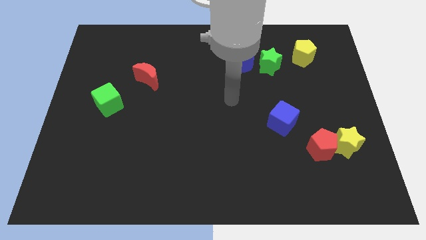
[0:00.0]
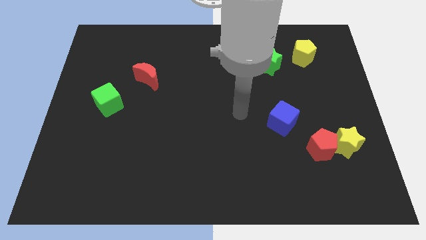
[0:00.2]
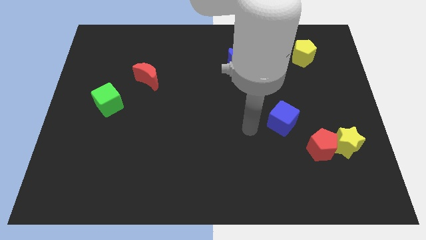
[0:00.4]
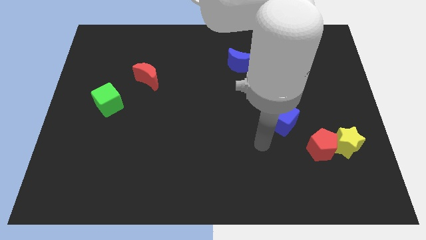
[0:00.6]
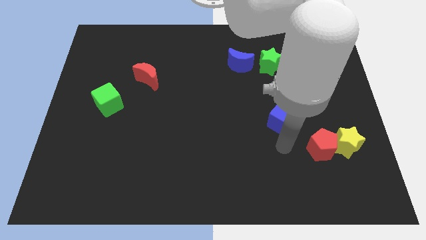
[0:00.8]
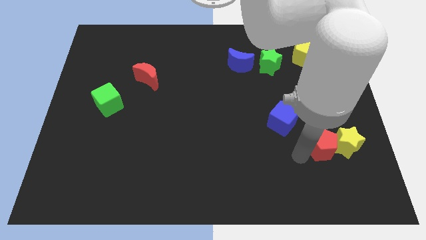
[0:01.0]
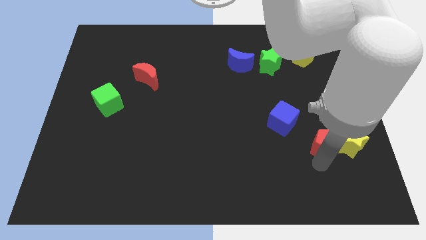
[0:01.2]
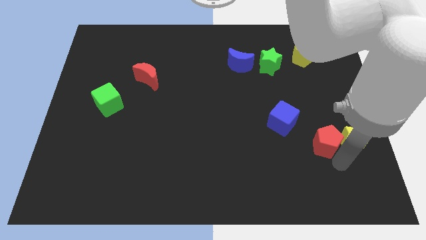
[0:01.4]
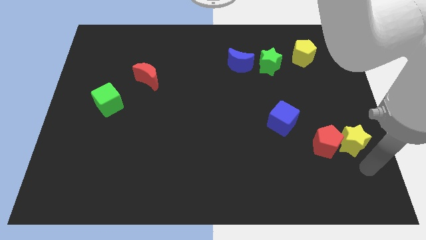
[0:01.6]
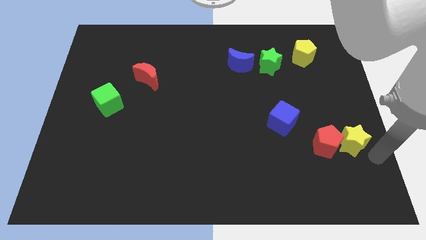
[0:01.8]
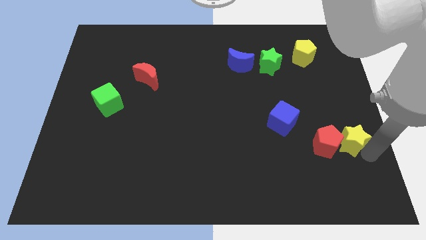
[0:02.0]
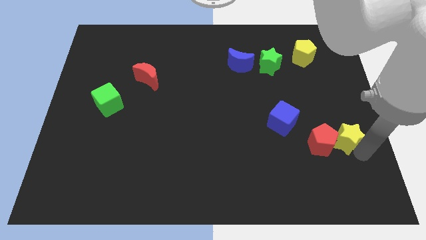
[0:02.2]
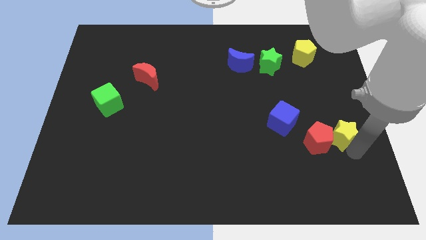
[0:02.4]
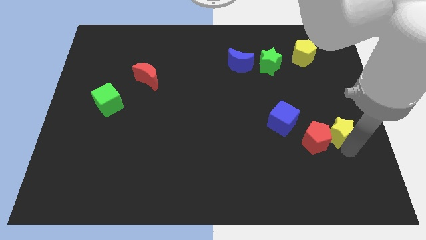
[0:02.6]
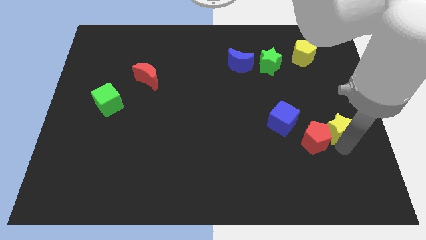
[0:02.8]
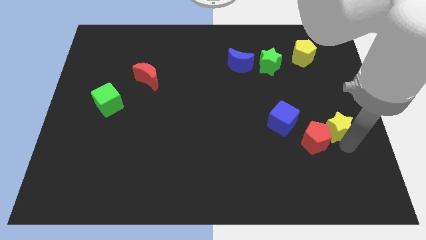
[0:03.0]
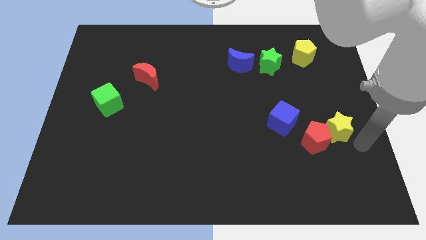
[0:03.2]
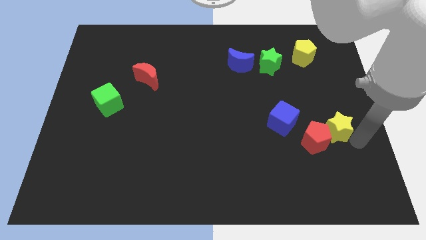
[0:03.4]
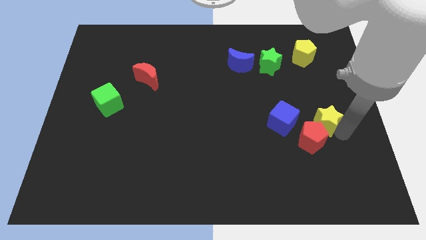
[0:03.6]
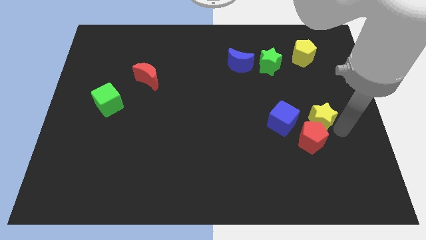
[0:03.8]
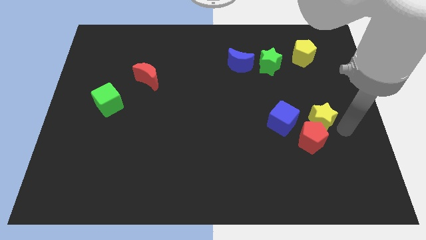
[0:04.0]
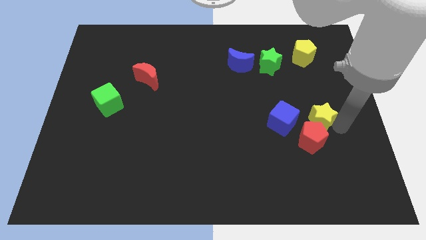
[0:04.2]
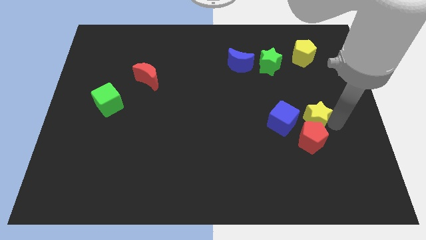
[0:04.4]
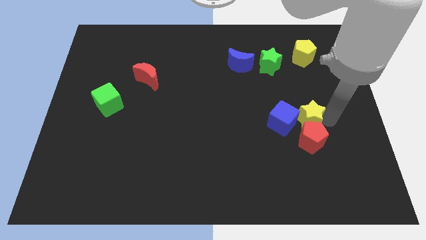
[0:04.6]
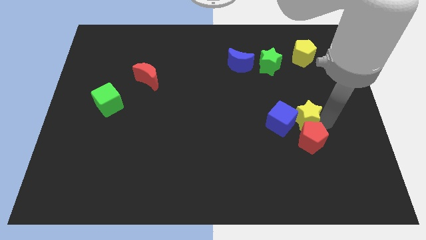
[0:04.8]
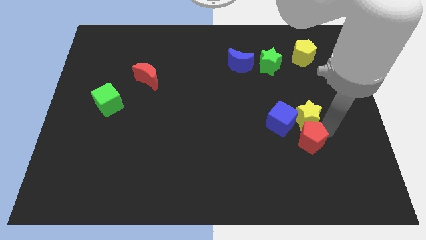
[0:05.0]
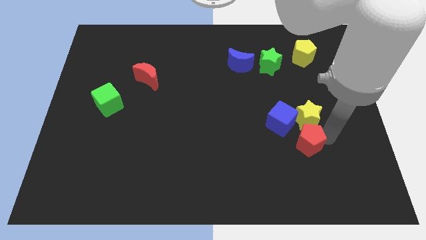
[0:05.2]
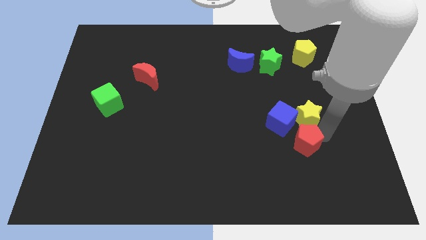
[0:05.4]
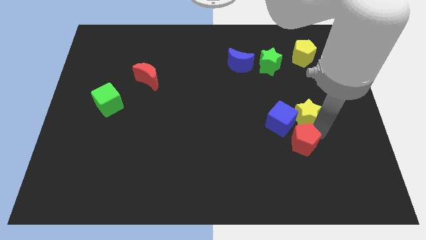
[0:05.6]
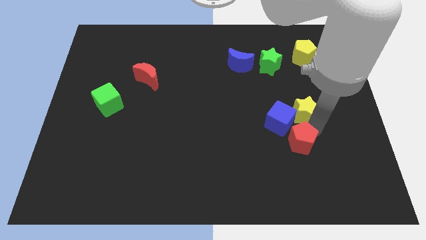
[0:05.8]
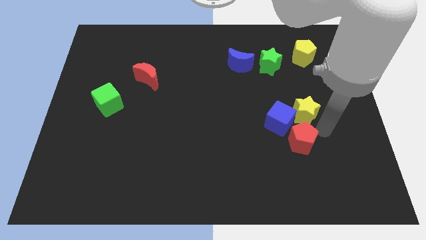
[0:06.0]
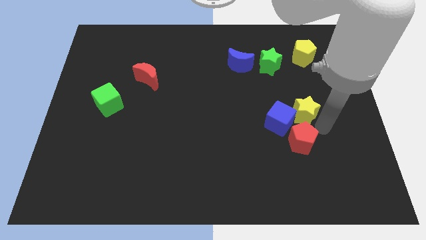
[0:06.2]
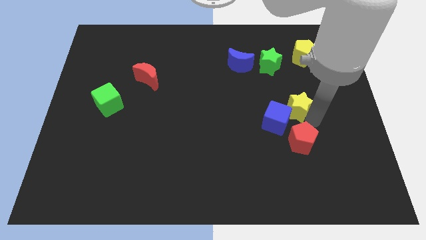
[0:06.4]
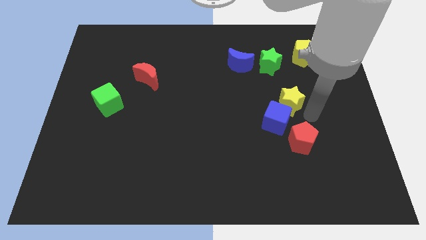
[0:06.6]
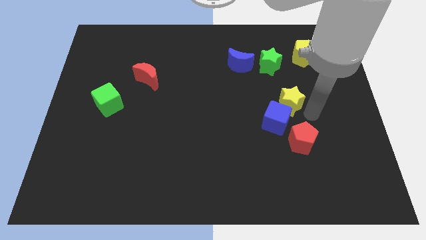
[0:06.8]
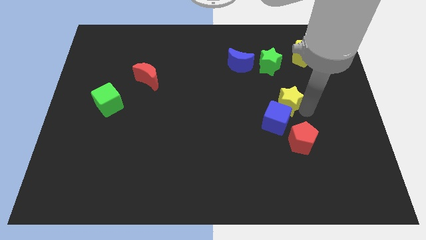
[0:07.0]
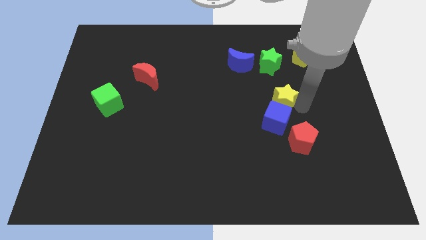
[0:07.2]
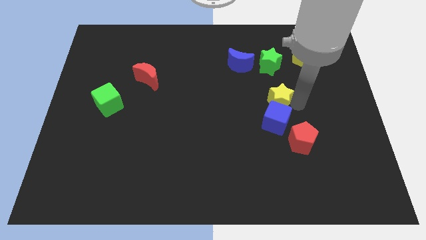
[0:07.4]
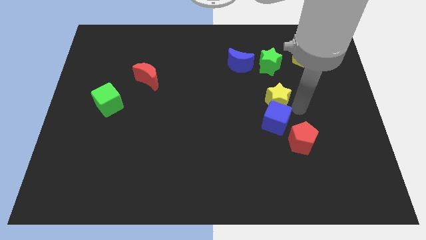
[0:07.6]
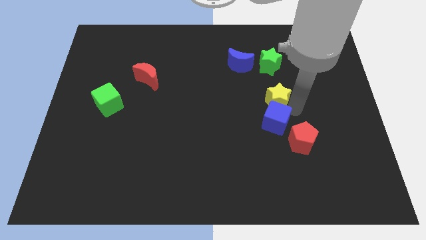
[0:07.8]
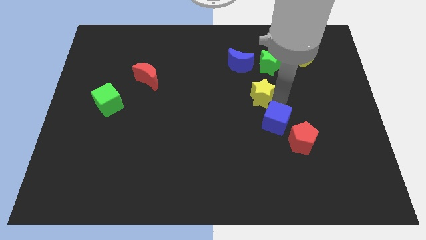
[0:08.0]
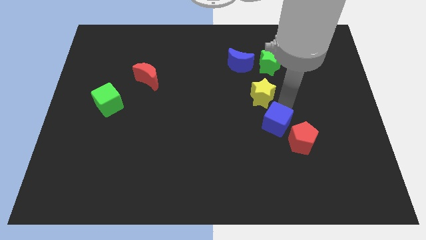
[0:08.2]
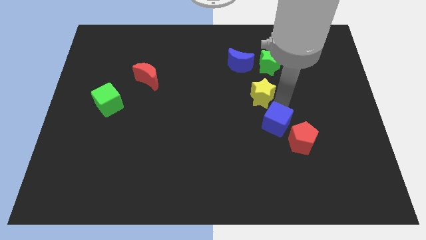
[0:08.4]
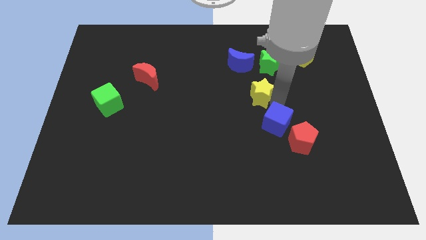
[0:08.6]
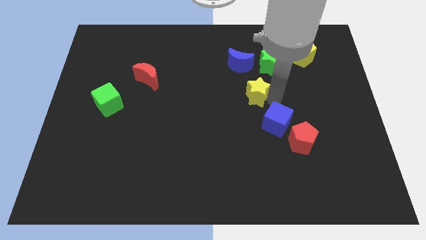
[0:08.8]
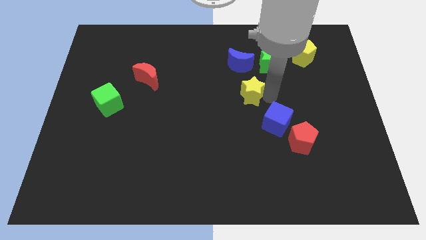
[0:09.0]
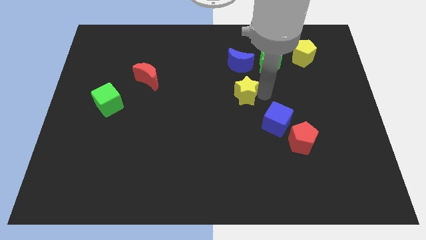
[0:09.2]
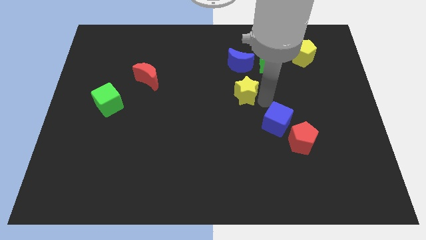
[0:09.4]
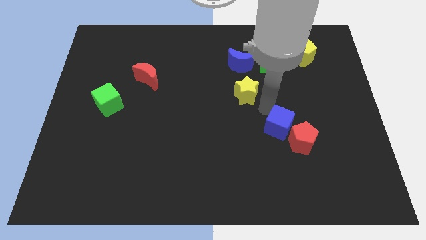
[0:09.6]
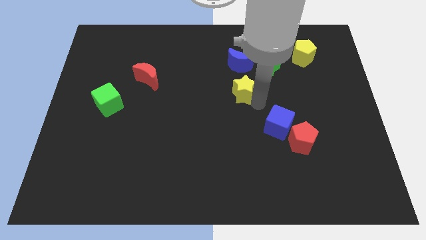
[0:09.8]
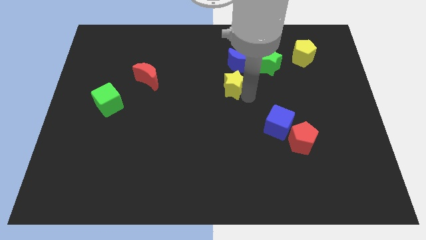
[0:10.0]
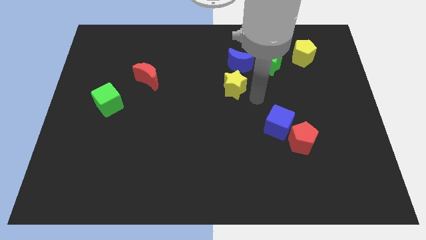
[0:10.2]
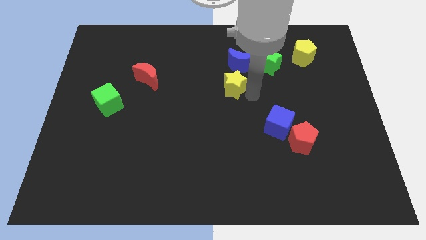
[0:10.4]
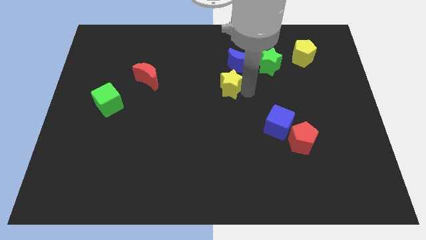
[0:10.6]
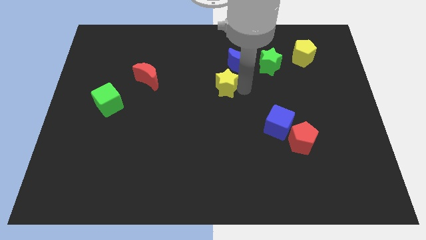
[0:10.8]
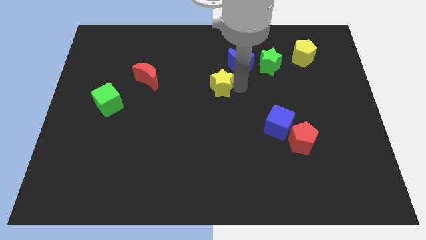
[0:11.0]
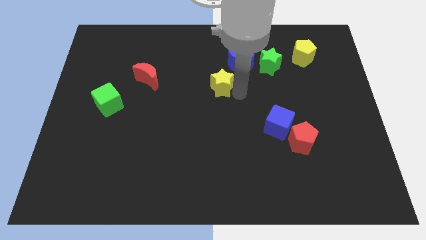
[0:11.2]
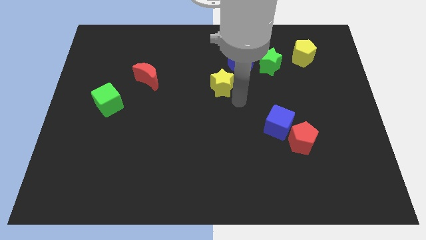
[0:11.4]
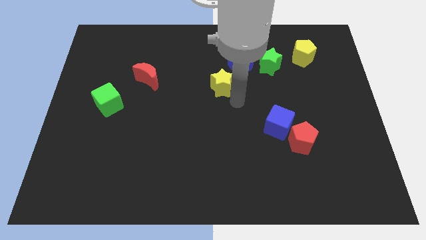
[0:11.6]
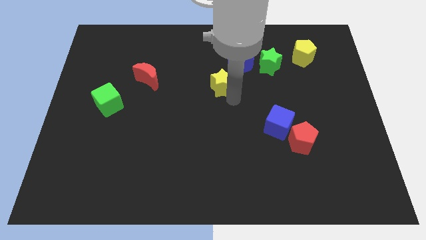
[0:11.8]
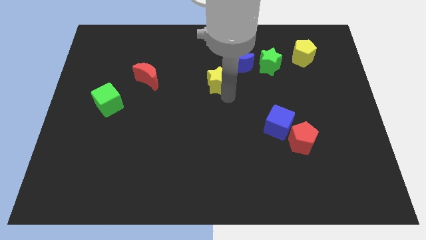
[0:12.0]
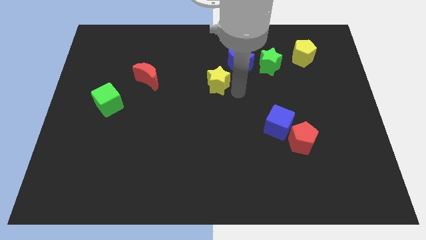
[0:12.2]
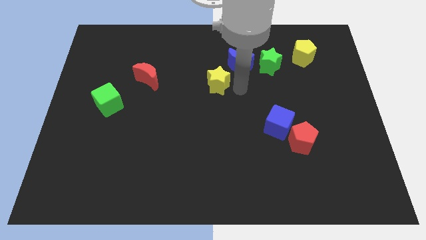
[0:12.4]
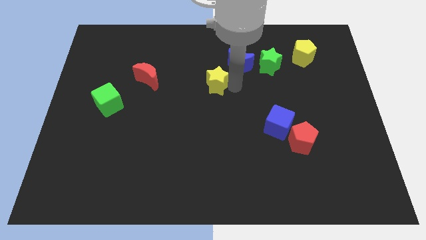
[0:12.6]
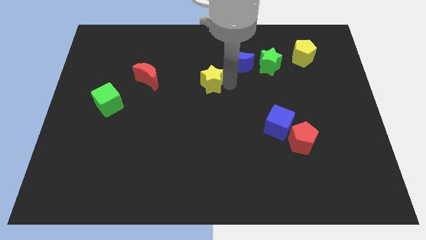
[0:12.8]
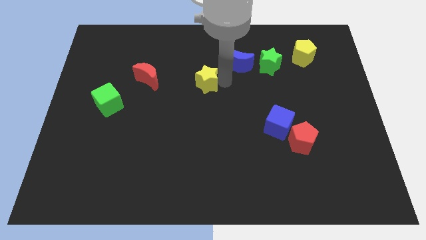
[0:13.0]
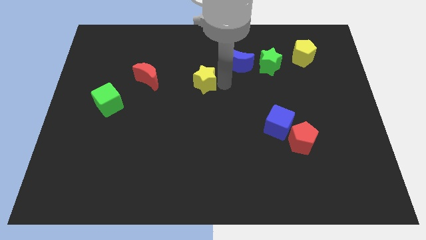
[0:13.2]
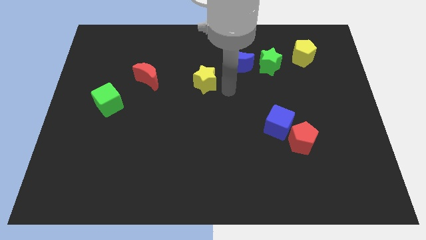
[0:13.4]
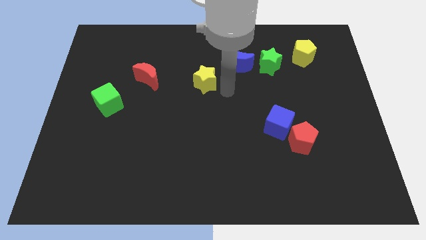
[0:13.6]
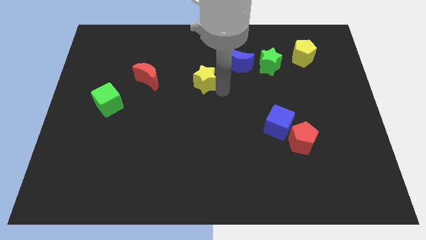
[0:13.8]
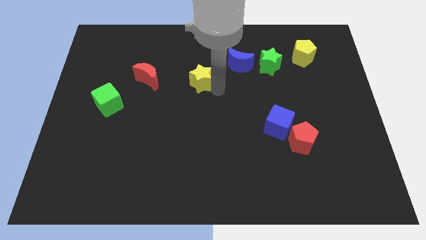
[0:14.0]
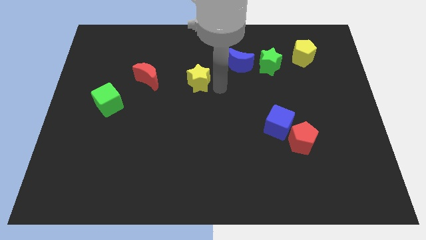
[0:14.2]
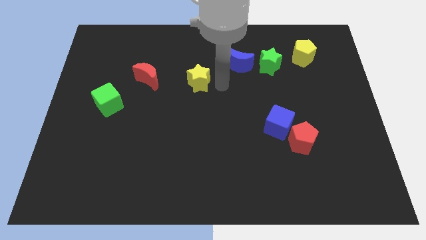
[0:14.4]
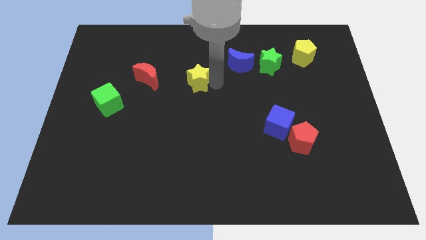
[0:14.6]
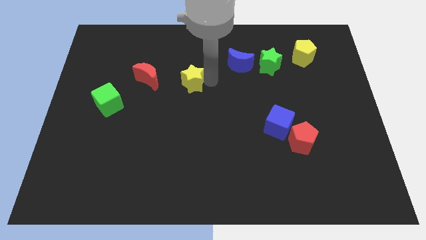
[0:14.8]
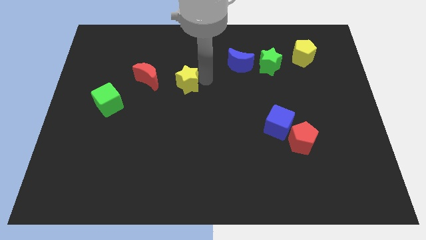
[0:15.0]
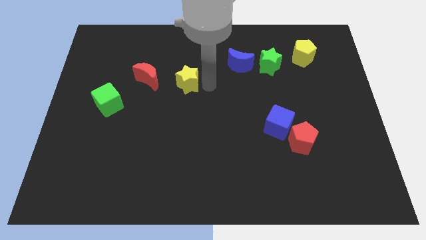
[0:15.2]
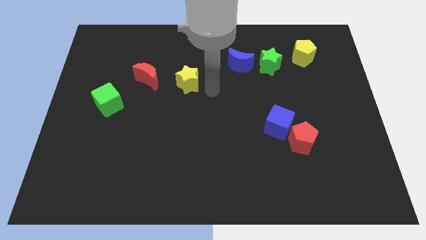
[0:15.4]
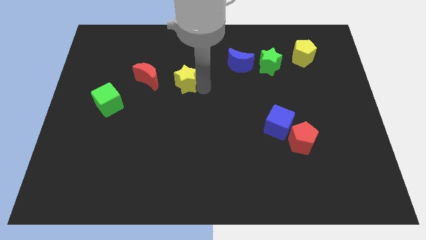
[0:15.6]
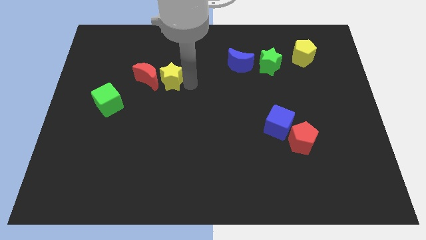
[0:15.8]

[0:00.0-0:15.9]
put the yellow star next to the red moon
